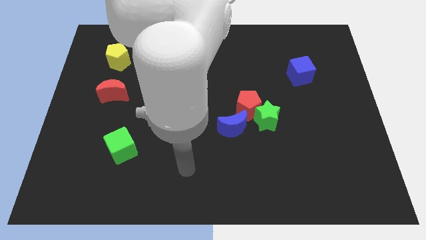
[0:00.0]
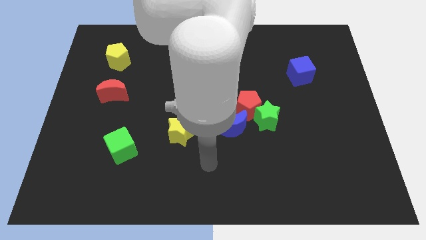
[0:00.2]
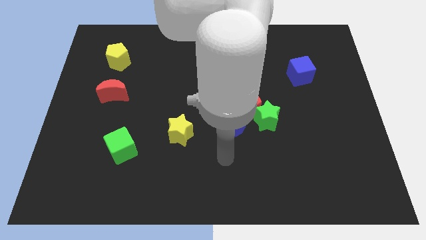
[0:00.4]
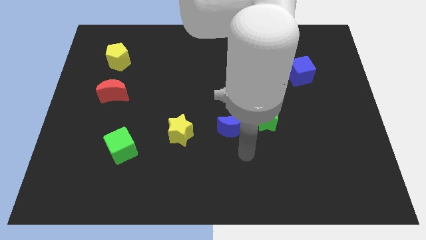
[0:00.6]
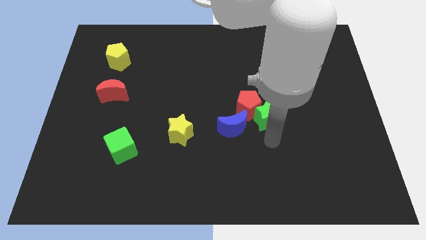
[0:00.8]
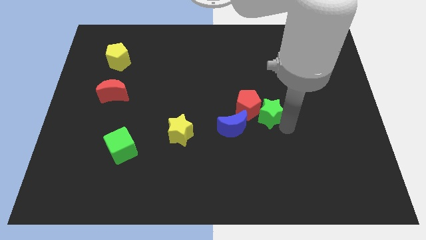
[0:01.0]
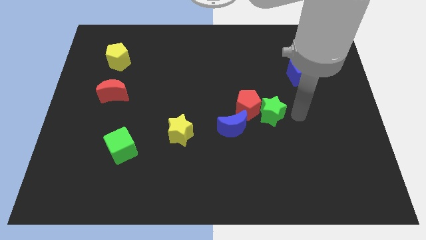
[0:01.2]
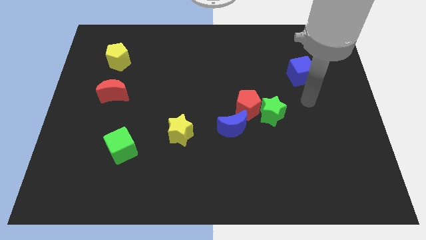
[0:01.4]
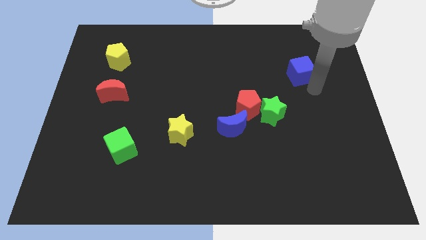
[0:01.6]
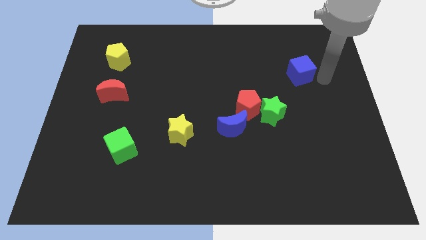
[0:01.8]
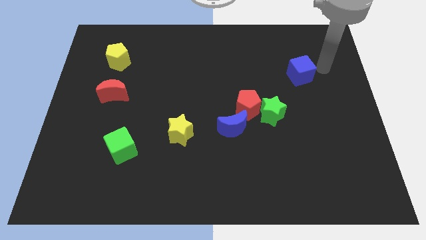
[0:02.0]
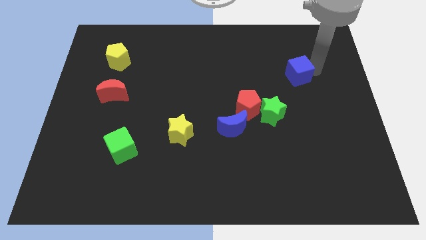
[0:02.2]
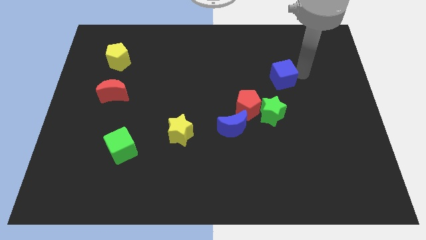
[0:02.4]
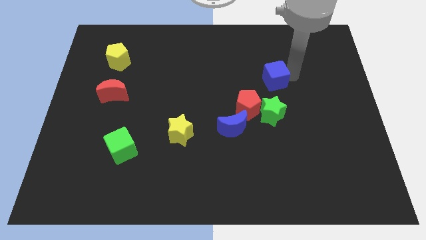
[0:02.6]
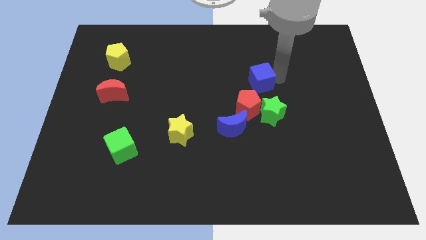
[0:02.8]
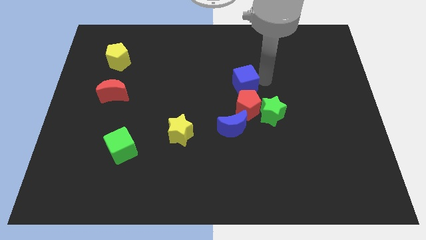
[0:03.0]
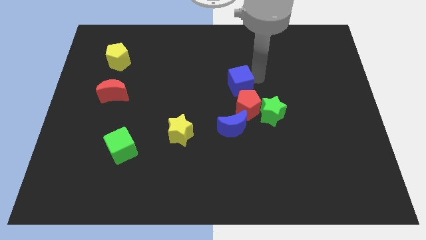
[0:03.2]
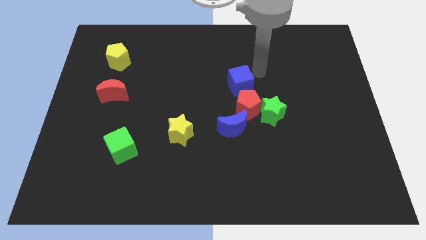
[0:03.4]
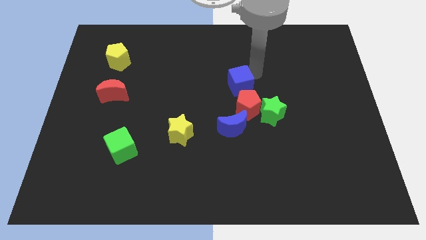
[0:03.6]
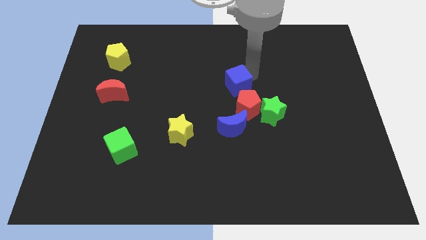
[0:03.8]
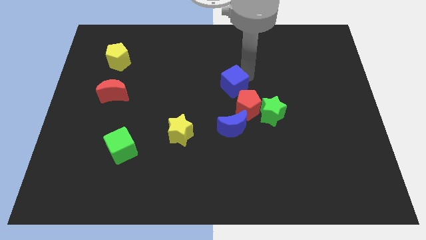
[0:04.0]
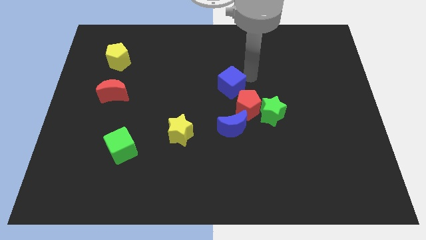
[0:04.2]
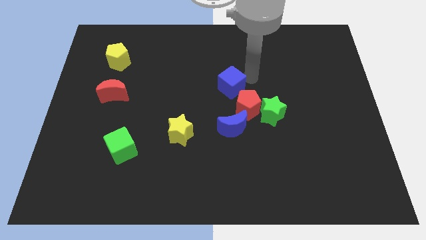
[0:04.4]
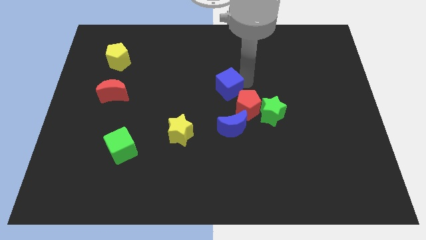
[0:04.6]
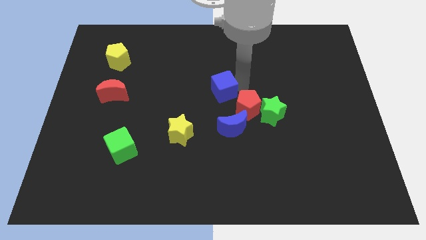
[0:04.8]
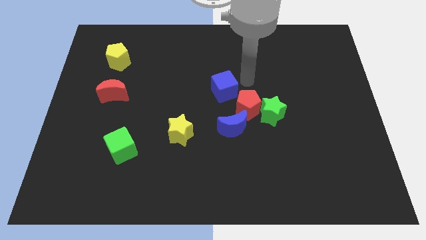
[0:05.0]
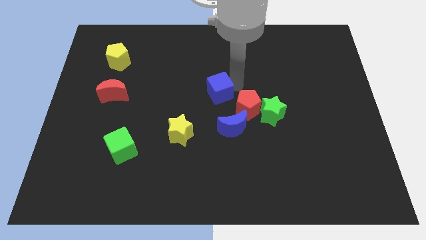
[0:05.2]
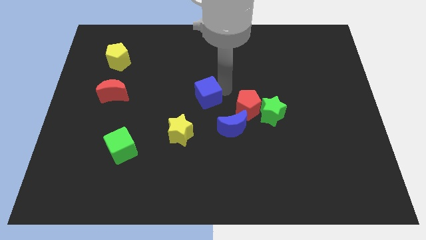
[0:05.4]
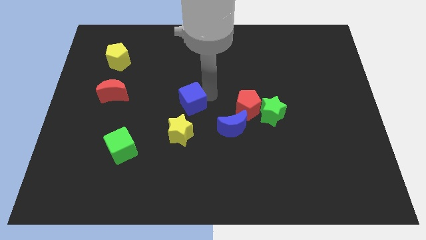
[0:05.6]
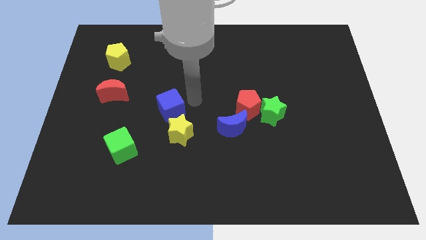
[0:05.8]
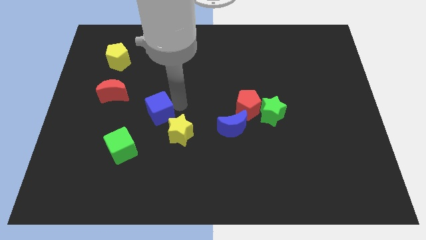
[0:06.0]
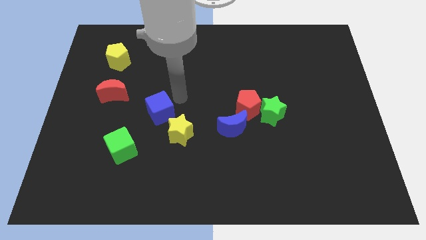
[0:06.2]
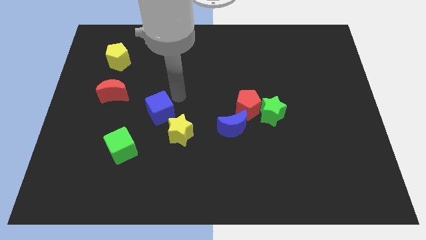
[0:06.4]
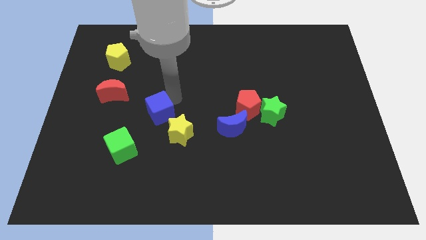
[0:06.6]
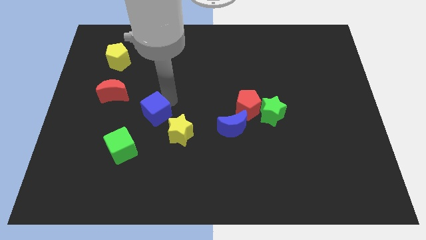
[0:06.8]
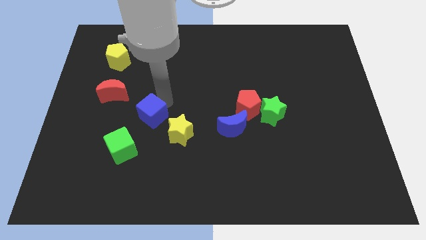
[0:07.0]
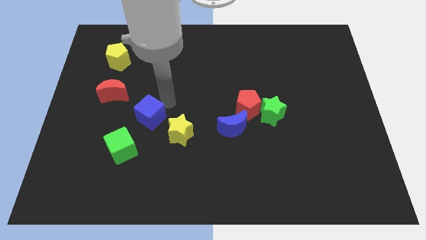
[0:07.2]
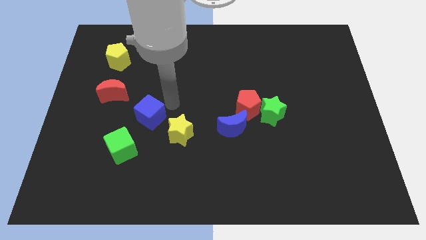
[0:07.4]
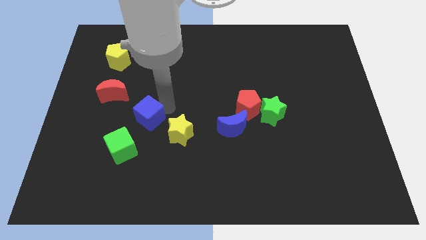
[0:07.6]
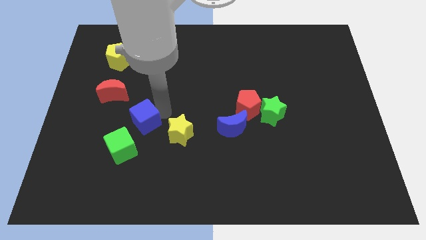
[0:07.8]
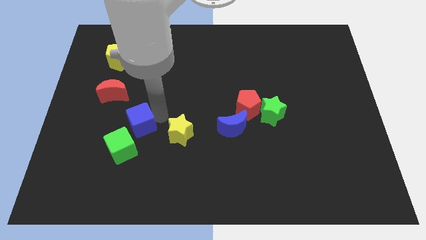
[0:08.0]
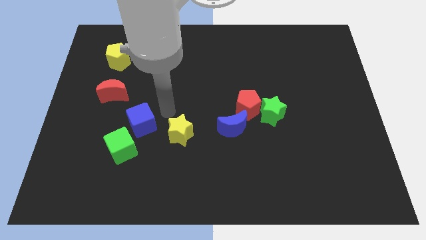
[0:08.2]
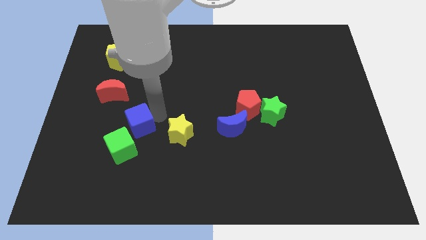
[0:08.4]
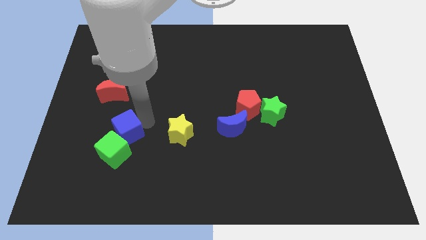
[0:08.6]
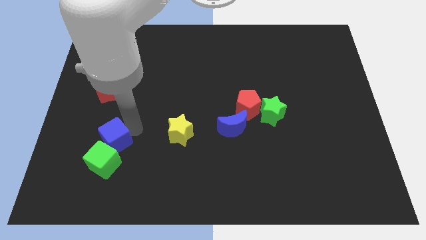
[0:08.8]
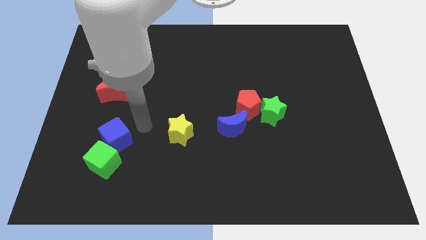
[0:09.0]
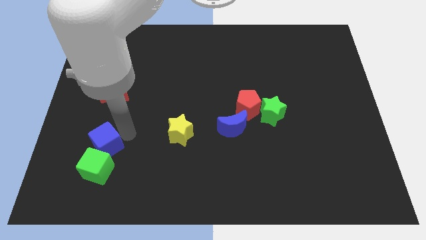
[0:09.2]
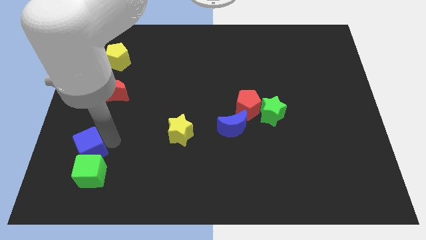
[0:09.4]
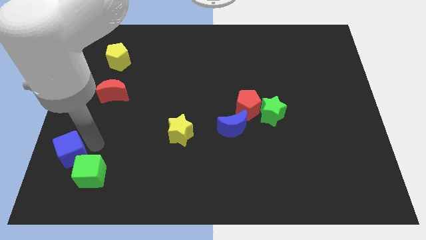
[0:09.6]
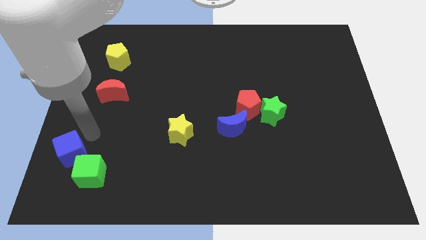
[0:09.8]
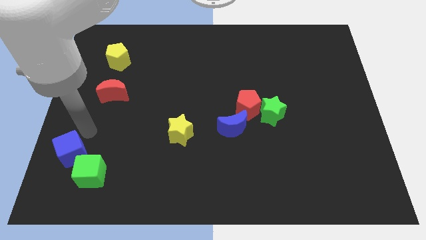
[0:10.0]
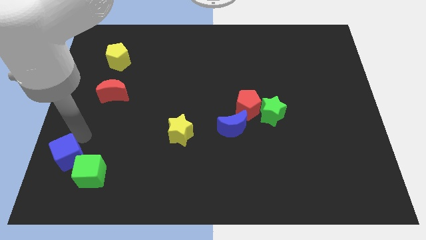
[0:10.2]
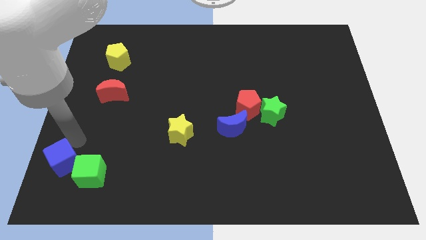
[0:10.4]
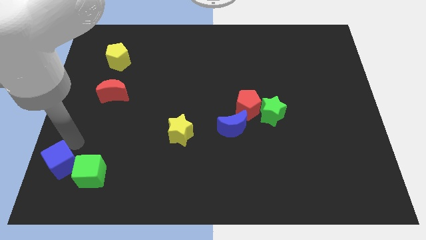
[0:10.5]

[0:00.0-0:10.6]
move the blue cube to the bottom left

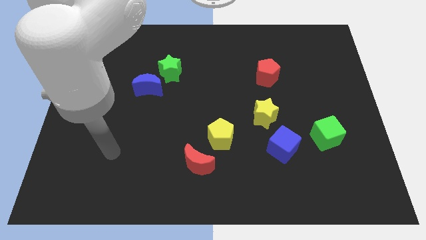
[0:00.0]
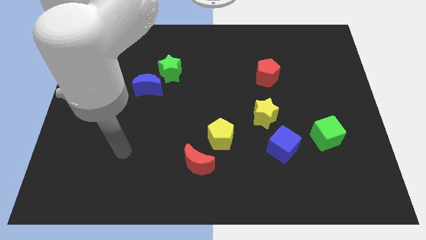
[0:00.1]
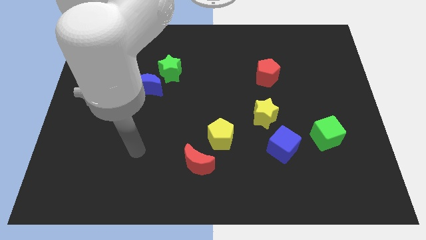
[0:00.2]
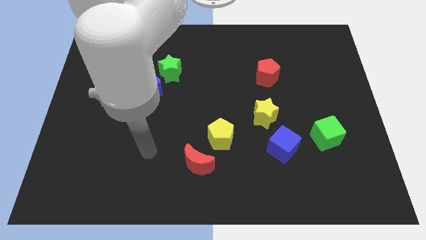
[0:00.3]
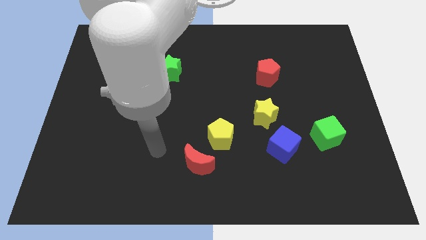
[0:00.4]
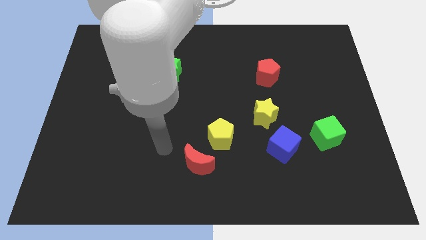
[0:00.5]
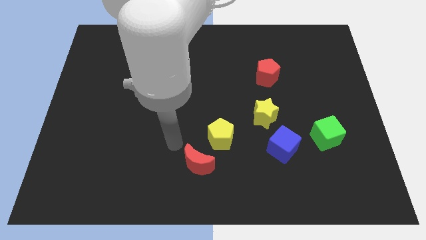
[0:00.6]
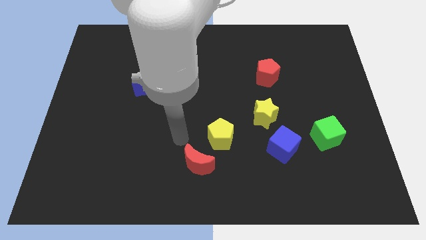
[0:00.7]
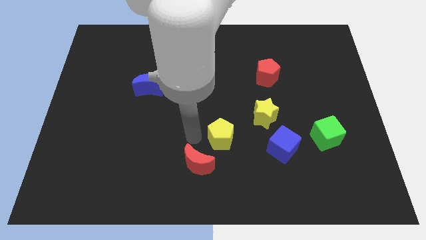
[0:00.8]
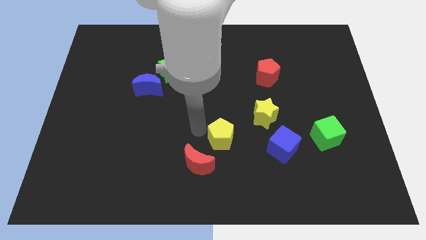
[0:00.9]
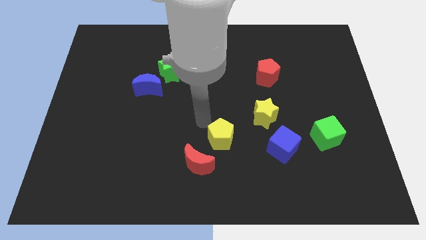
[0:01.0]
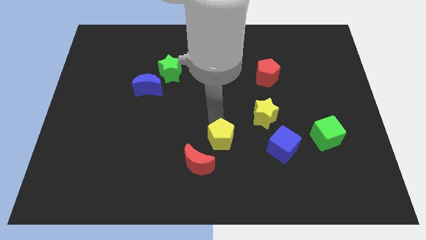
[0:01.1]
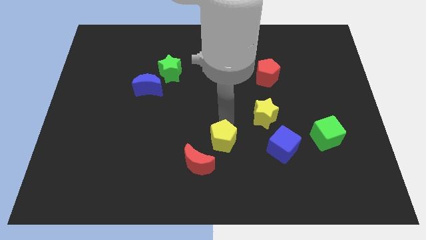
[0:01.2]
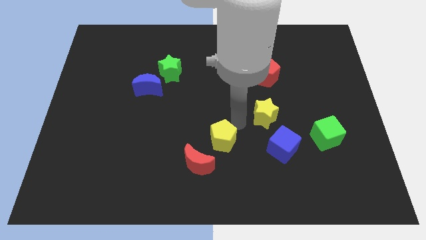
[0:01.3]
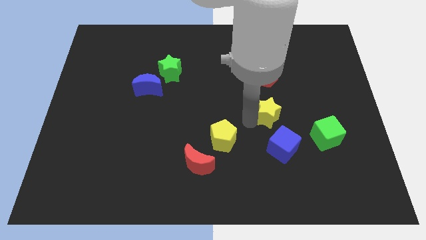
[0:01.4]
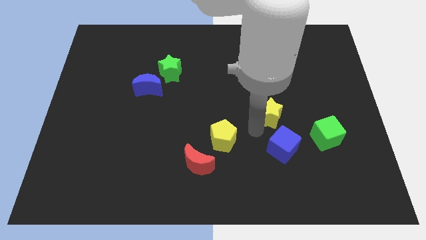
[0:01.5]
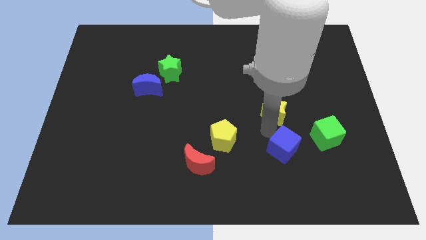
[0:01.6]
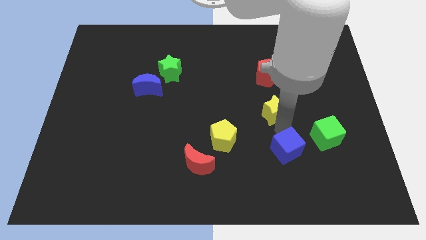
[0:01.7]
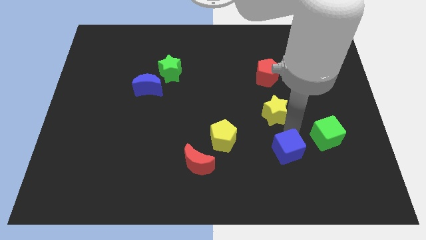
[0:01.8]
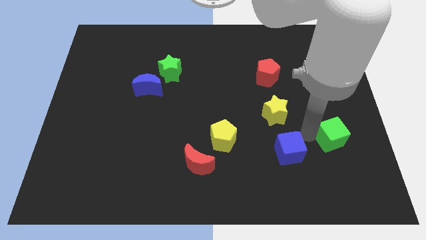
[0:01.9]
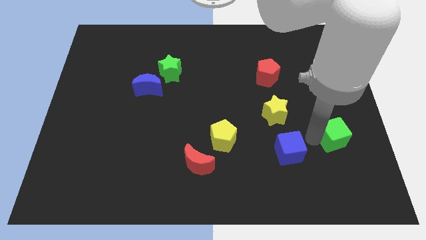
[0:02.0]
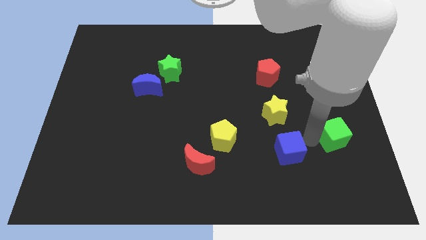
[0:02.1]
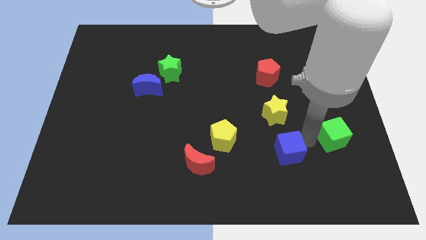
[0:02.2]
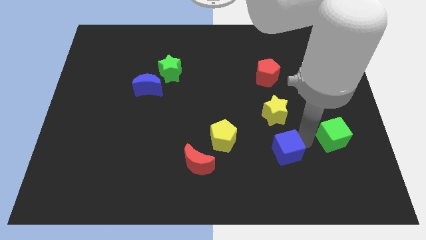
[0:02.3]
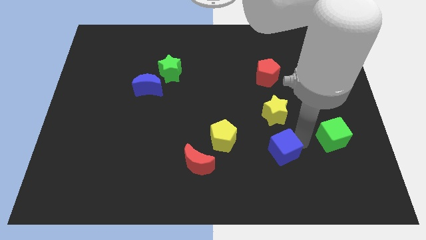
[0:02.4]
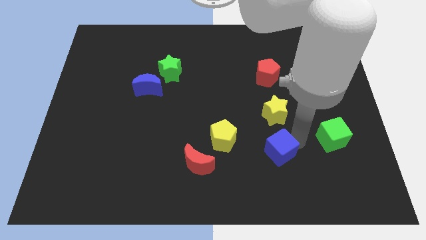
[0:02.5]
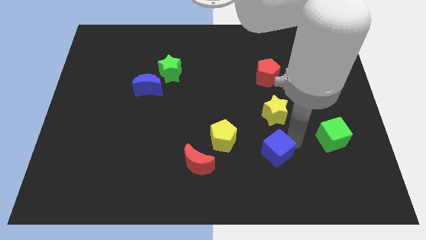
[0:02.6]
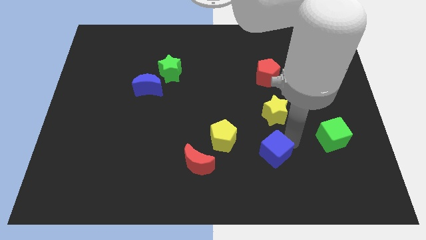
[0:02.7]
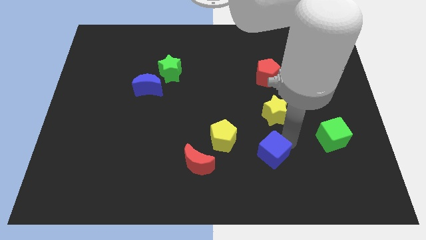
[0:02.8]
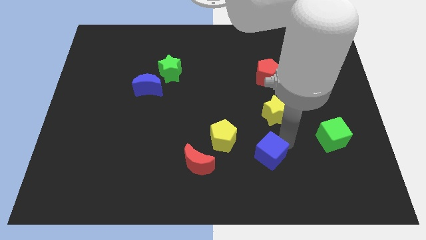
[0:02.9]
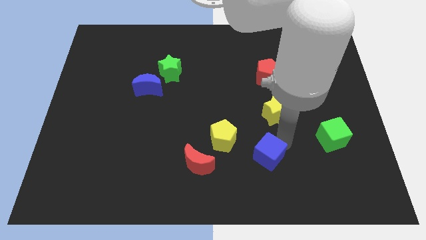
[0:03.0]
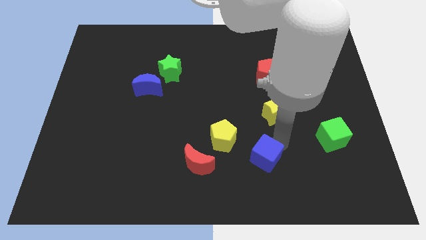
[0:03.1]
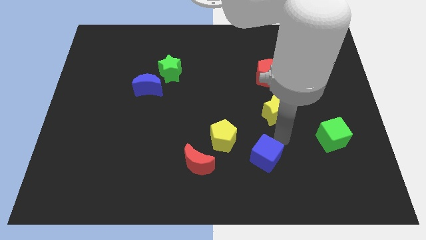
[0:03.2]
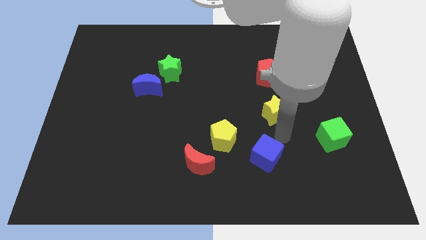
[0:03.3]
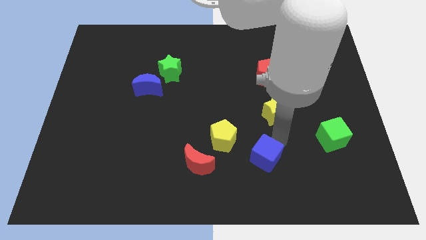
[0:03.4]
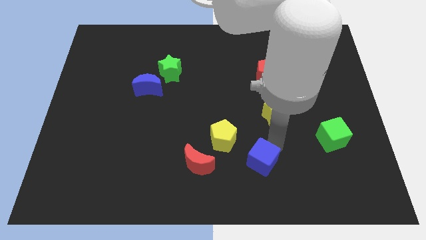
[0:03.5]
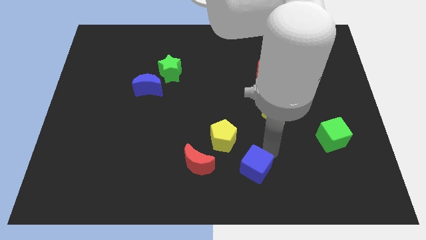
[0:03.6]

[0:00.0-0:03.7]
move the blue cube to the bottom side
